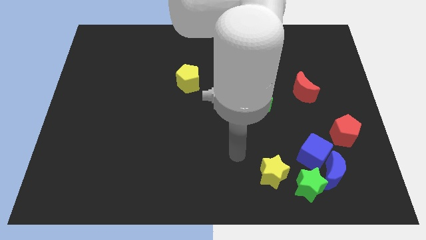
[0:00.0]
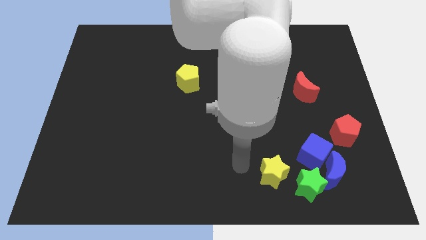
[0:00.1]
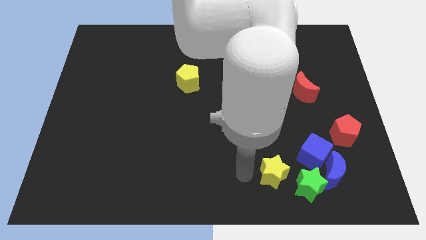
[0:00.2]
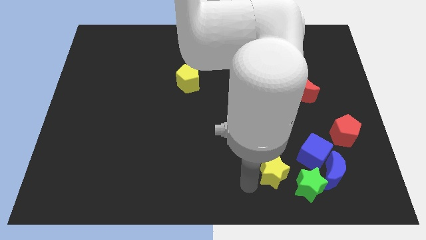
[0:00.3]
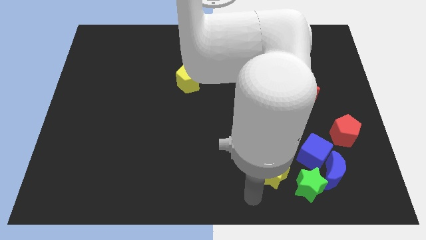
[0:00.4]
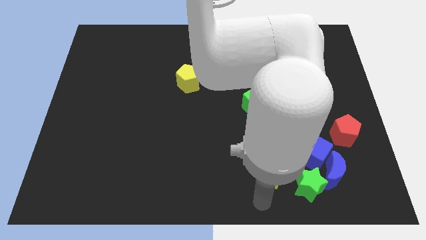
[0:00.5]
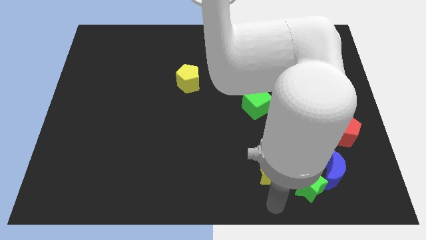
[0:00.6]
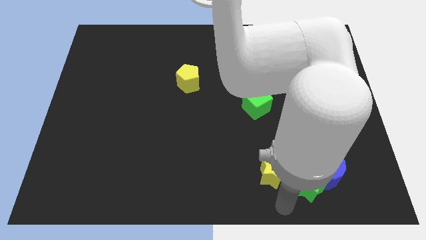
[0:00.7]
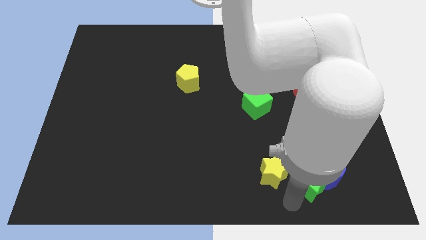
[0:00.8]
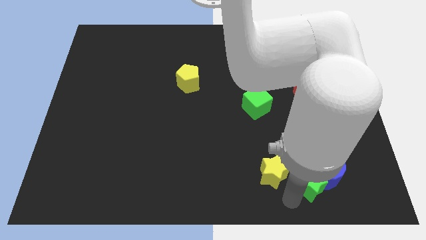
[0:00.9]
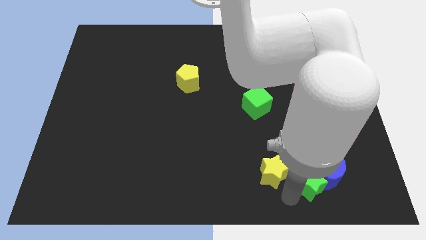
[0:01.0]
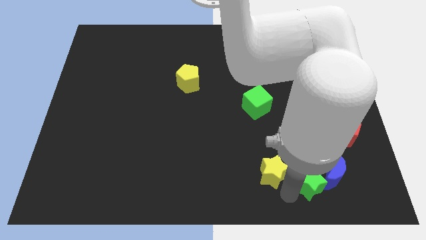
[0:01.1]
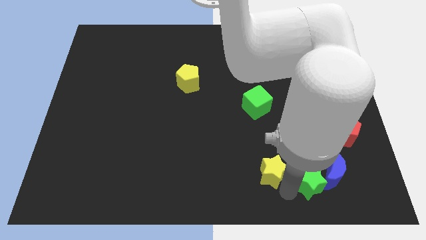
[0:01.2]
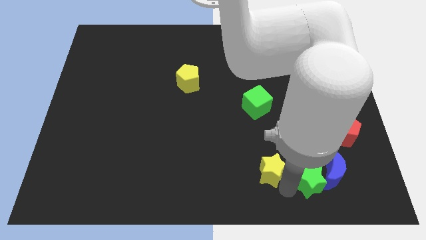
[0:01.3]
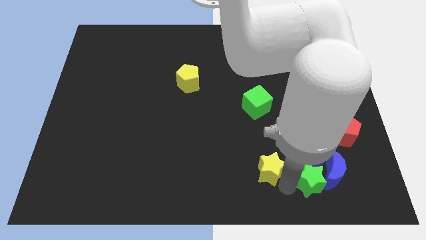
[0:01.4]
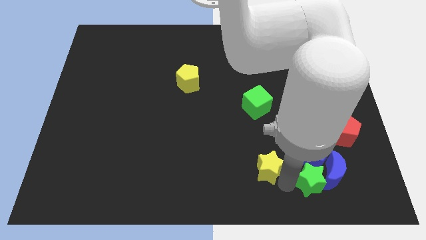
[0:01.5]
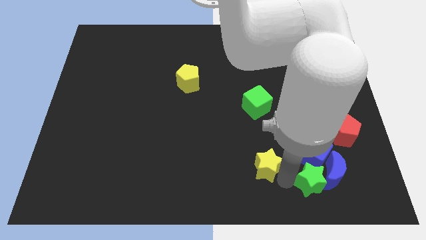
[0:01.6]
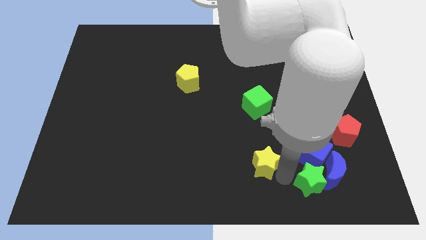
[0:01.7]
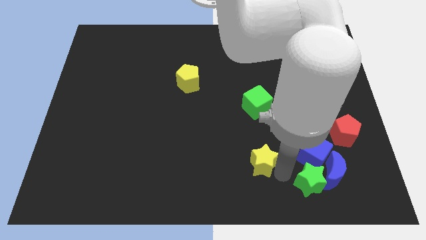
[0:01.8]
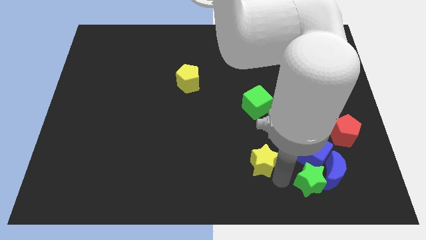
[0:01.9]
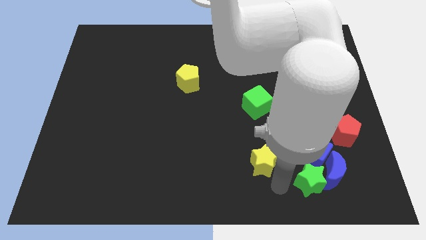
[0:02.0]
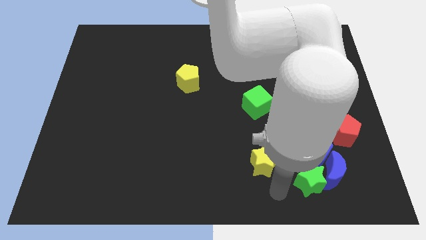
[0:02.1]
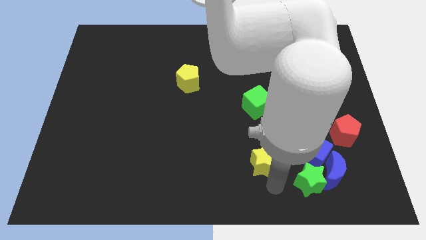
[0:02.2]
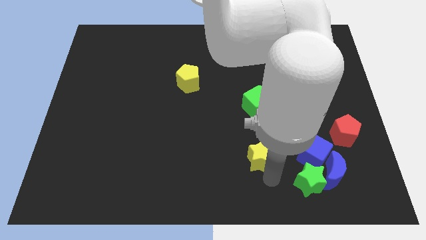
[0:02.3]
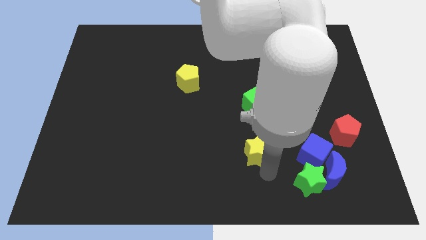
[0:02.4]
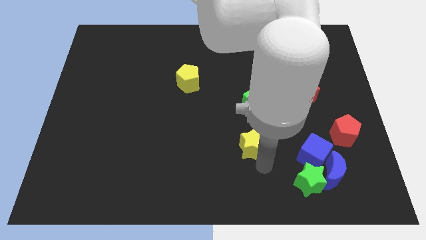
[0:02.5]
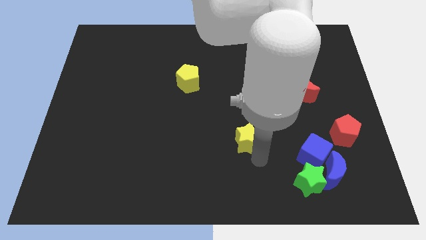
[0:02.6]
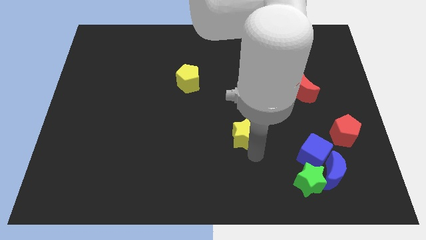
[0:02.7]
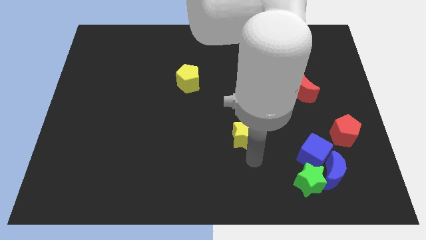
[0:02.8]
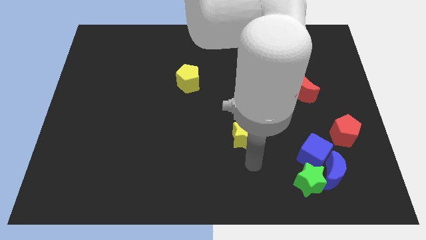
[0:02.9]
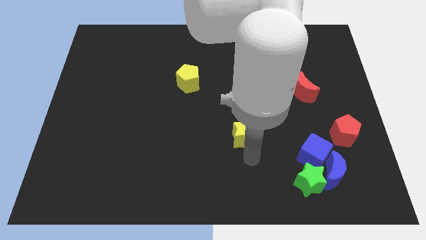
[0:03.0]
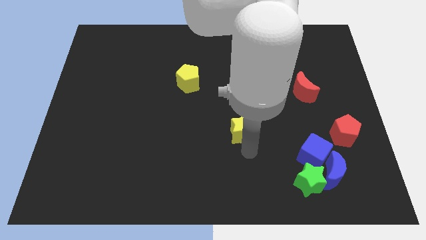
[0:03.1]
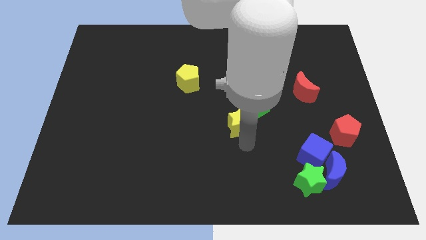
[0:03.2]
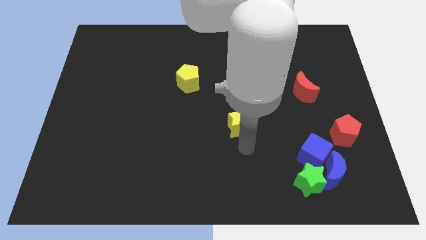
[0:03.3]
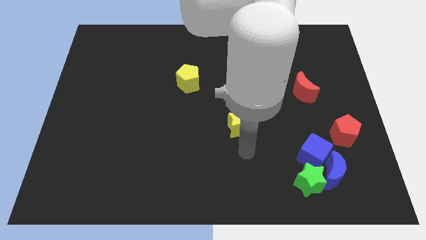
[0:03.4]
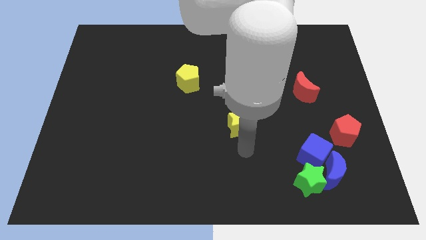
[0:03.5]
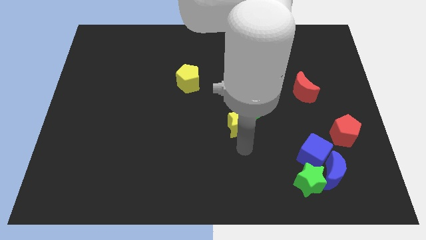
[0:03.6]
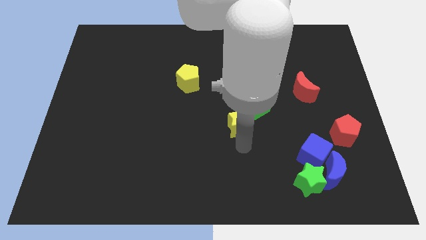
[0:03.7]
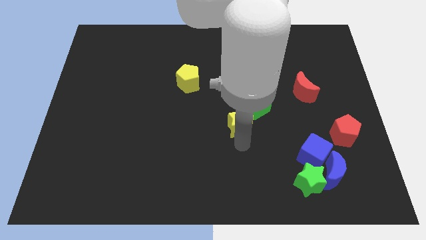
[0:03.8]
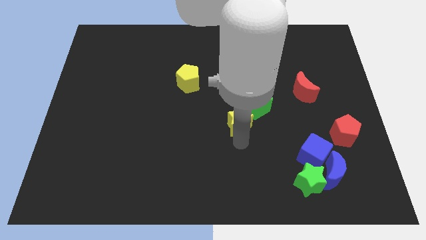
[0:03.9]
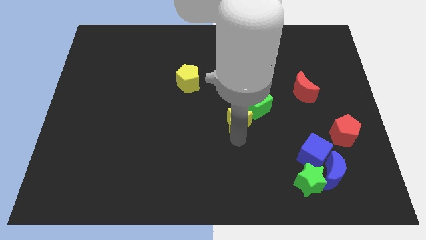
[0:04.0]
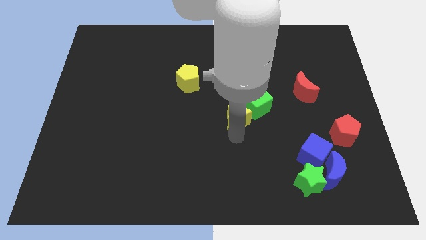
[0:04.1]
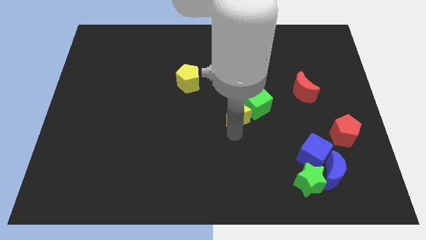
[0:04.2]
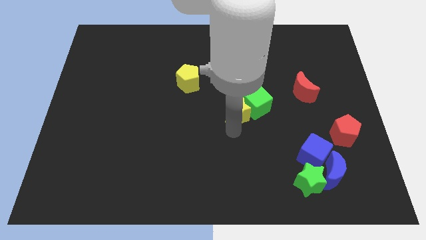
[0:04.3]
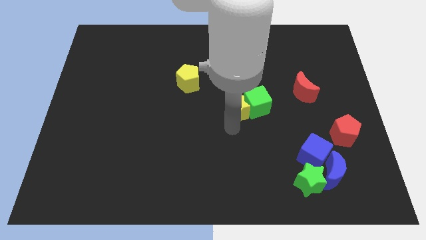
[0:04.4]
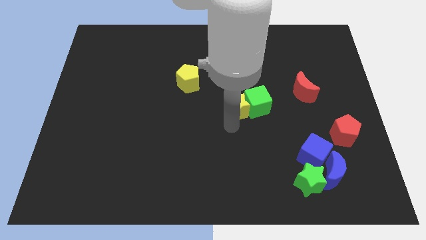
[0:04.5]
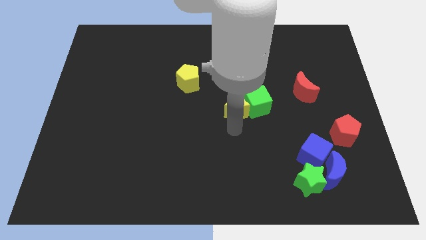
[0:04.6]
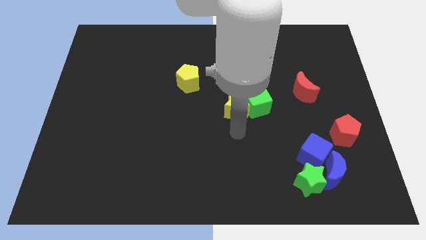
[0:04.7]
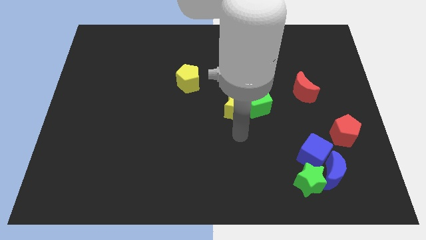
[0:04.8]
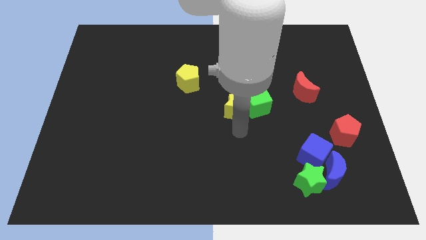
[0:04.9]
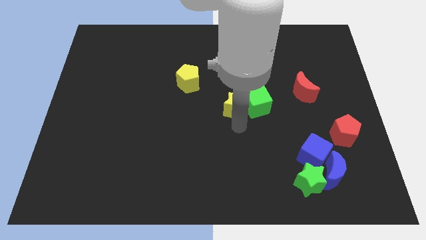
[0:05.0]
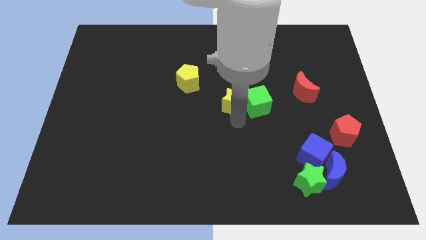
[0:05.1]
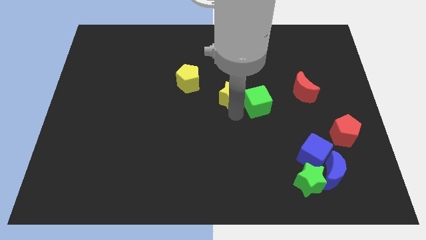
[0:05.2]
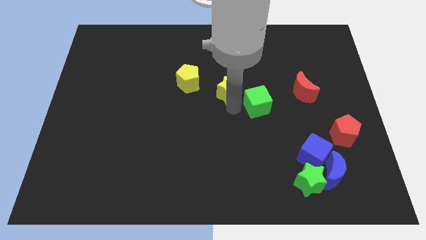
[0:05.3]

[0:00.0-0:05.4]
move the yellow star to the right side of the yellow pentagon

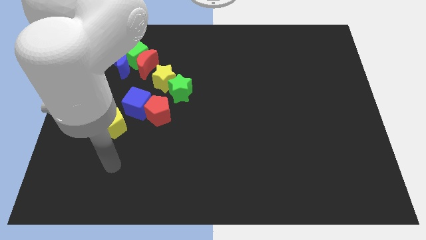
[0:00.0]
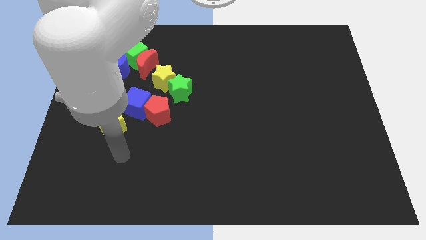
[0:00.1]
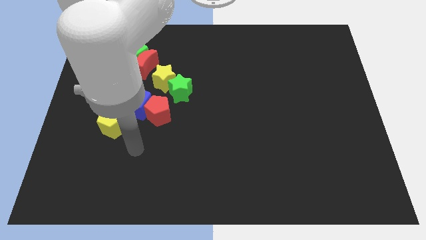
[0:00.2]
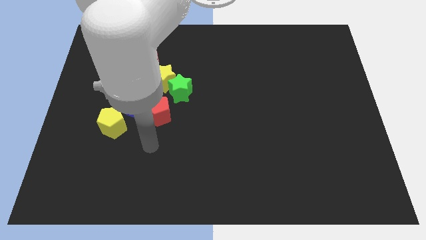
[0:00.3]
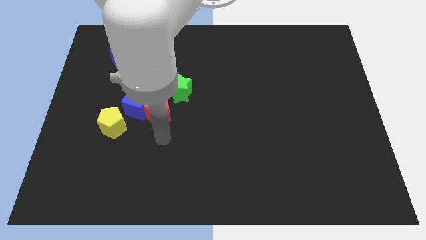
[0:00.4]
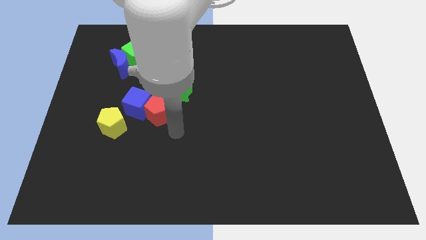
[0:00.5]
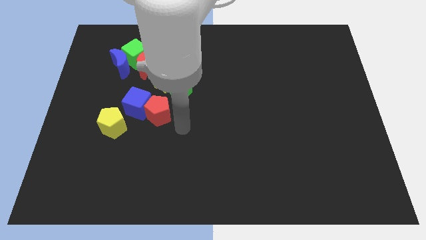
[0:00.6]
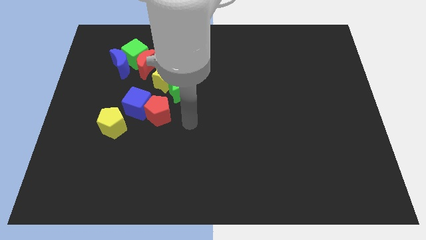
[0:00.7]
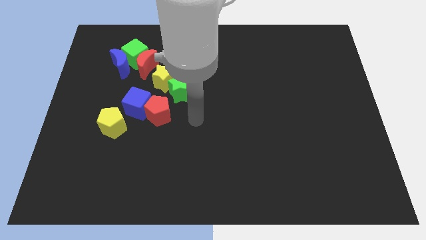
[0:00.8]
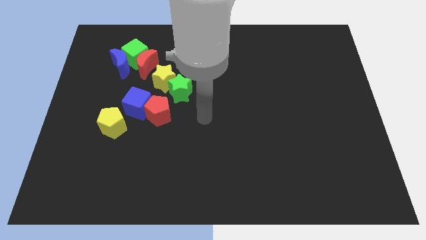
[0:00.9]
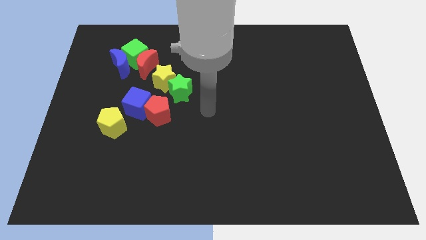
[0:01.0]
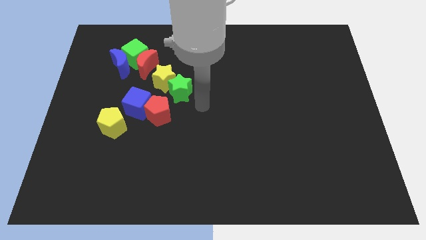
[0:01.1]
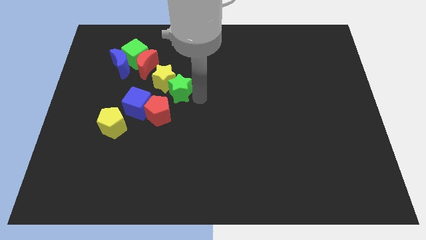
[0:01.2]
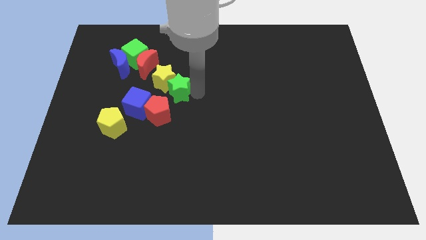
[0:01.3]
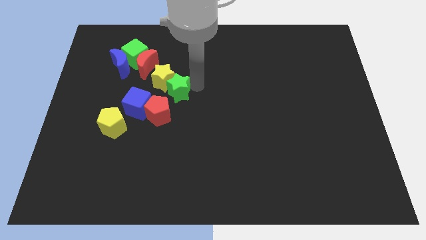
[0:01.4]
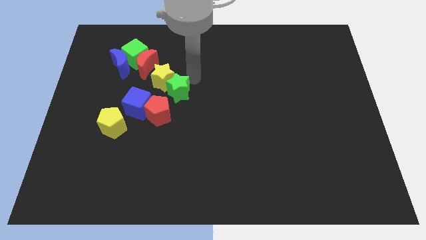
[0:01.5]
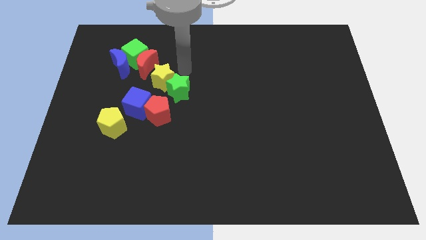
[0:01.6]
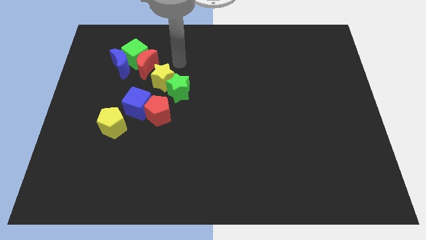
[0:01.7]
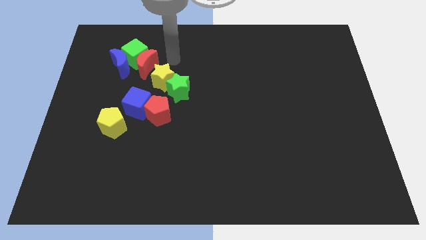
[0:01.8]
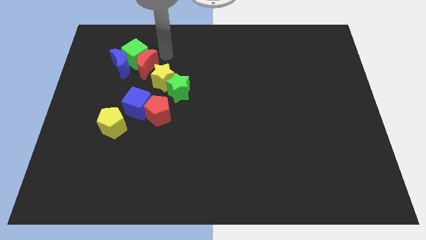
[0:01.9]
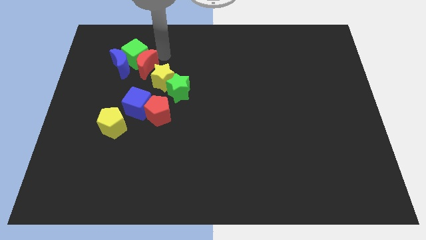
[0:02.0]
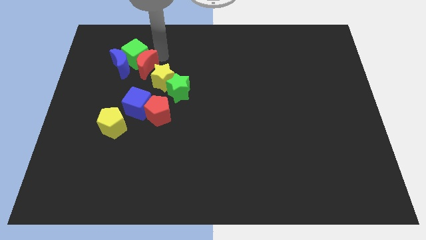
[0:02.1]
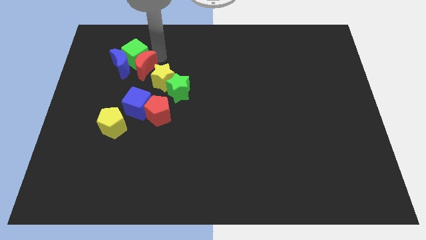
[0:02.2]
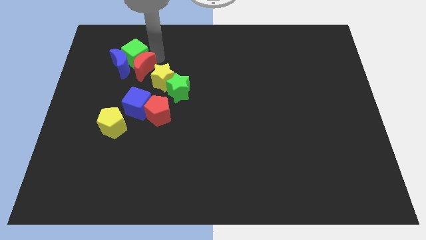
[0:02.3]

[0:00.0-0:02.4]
move the red moon to the bottom left side of the green cube
